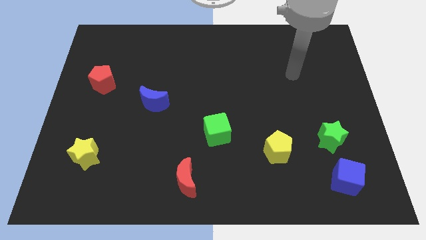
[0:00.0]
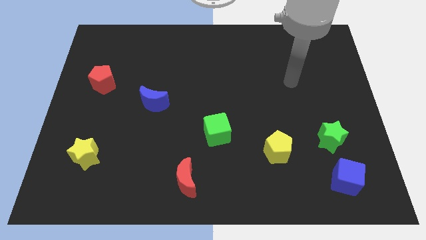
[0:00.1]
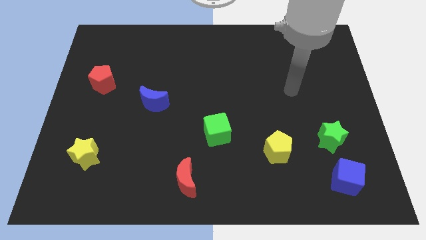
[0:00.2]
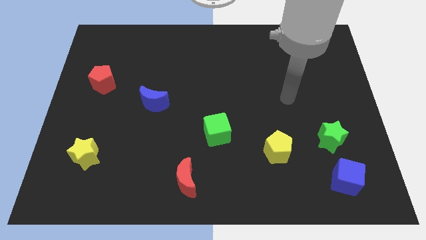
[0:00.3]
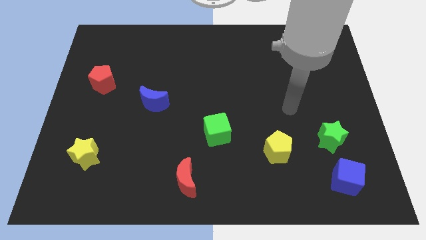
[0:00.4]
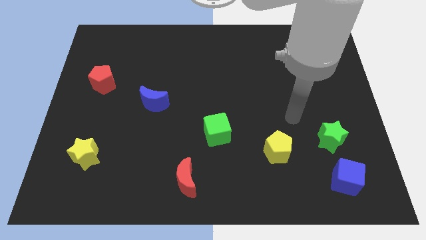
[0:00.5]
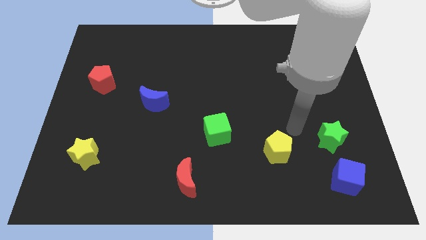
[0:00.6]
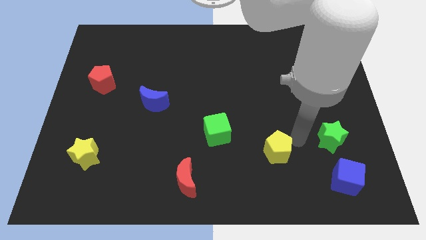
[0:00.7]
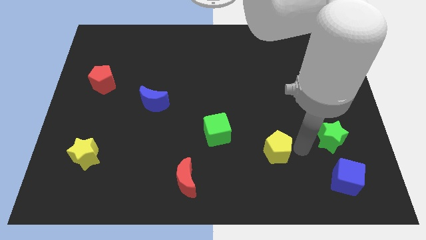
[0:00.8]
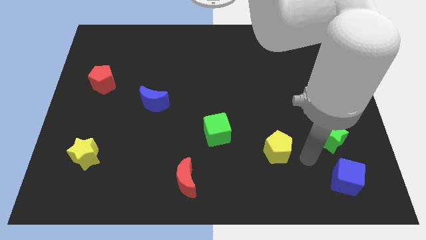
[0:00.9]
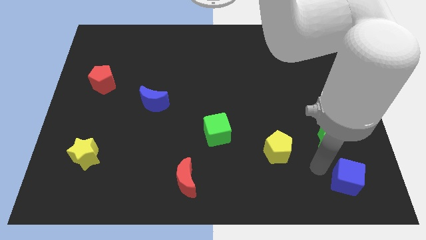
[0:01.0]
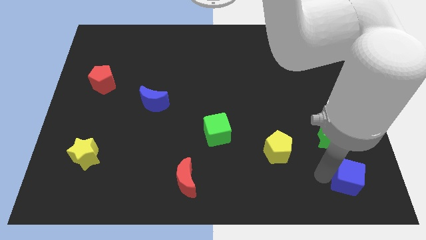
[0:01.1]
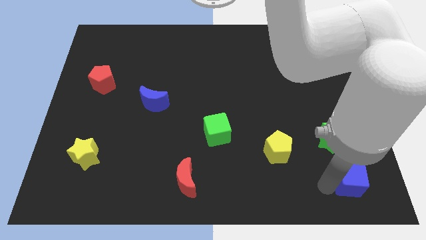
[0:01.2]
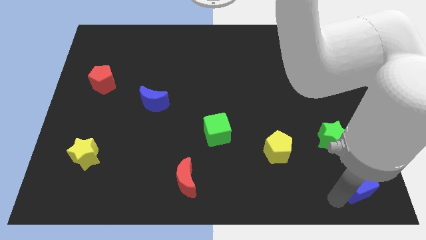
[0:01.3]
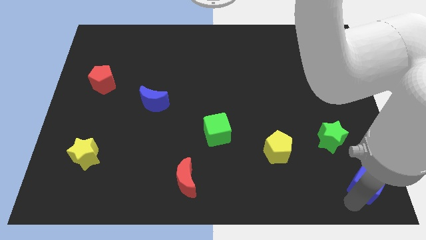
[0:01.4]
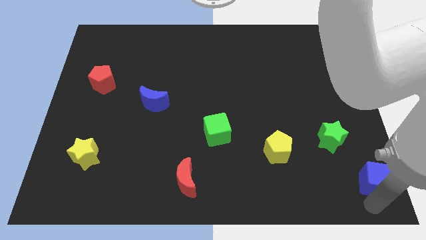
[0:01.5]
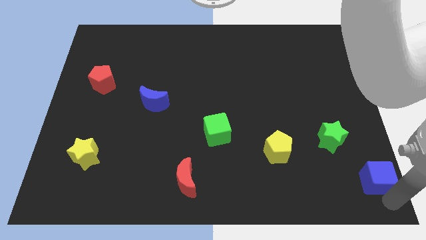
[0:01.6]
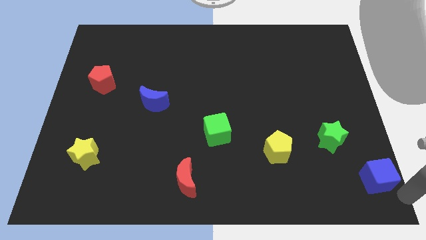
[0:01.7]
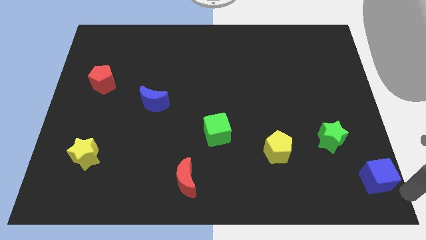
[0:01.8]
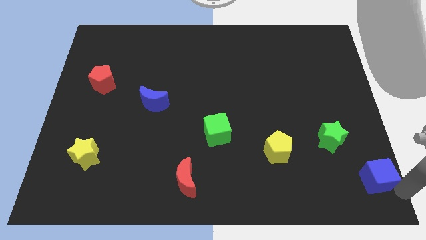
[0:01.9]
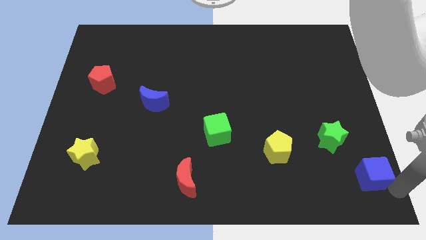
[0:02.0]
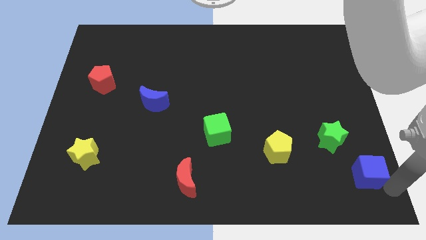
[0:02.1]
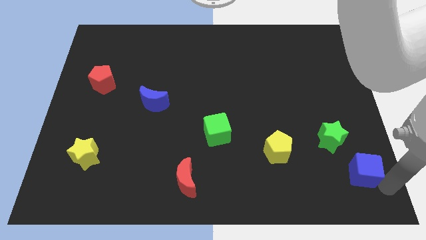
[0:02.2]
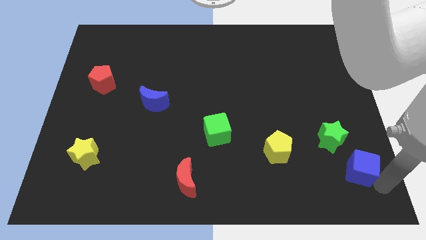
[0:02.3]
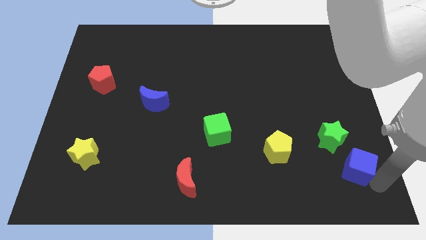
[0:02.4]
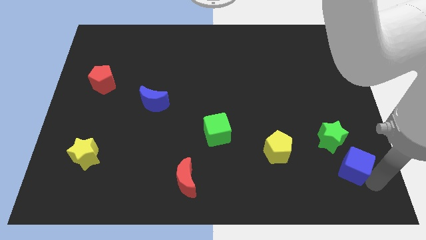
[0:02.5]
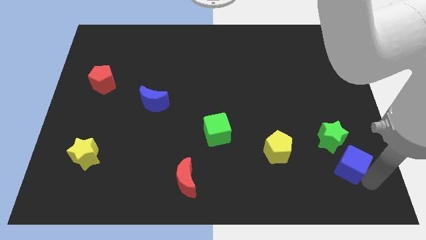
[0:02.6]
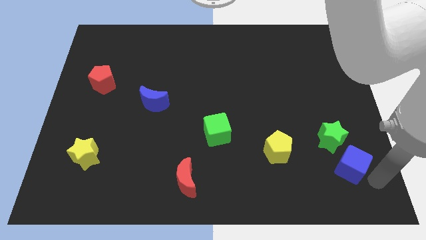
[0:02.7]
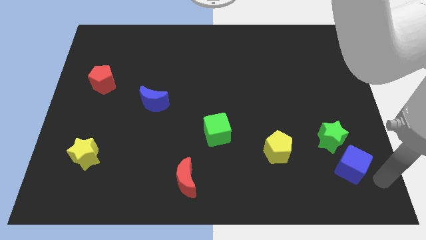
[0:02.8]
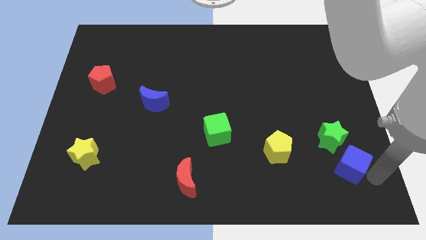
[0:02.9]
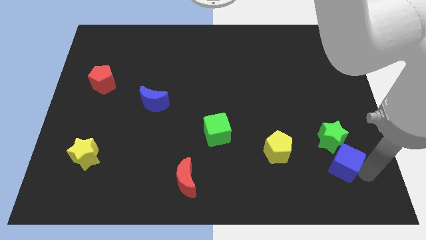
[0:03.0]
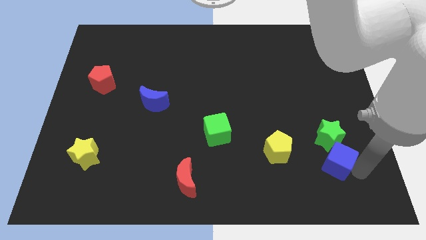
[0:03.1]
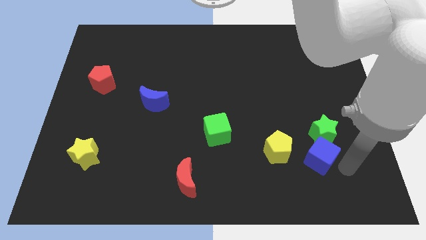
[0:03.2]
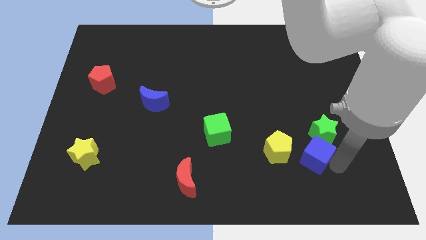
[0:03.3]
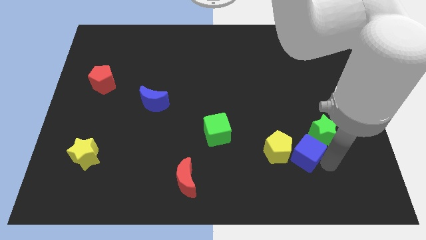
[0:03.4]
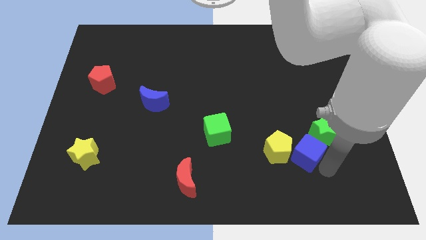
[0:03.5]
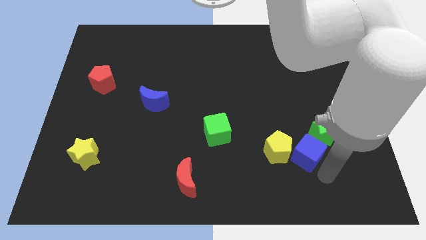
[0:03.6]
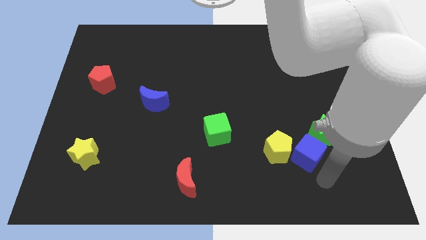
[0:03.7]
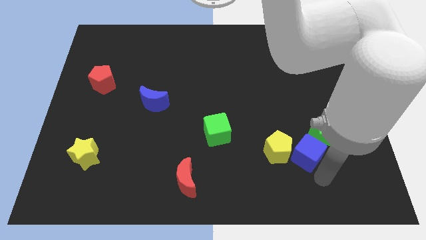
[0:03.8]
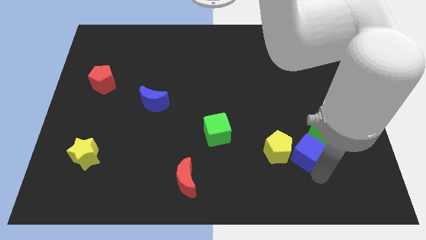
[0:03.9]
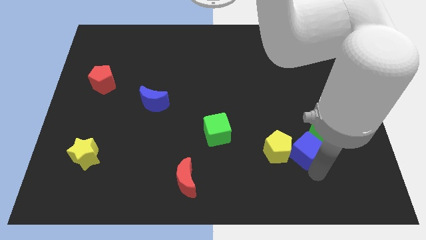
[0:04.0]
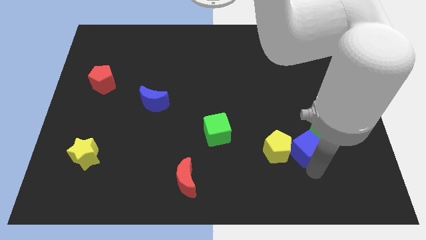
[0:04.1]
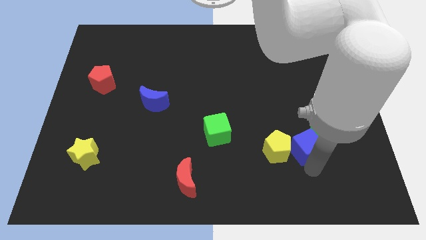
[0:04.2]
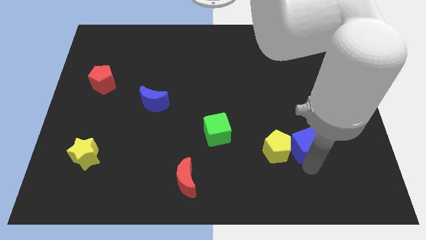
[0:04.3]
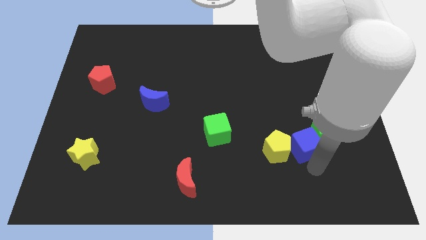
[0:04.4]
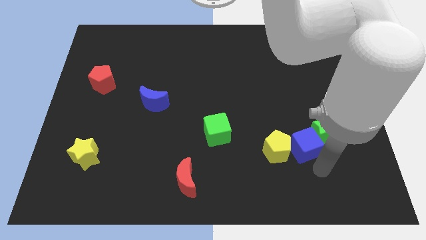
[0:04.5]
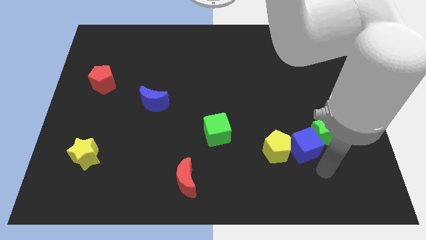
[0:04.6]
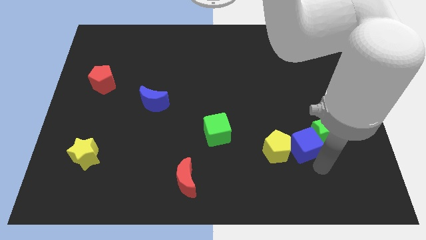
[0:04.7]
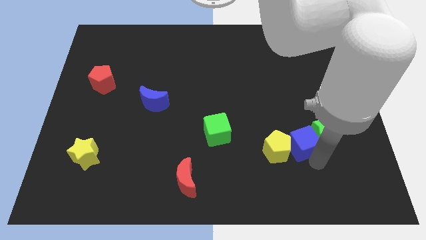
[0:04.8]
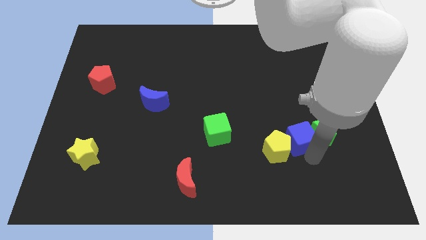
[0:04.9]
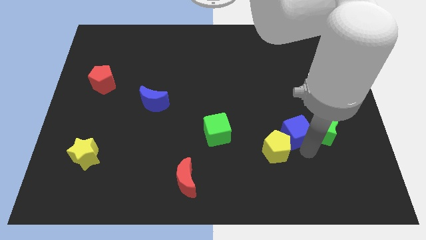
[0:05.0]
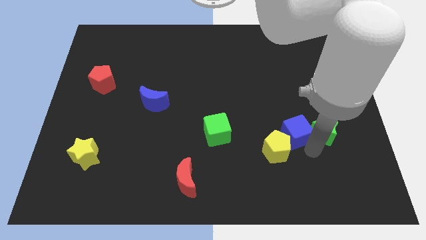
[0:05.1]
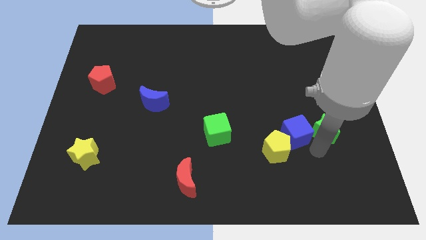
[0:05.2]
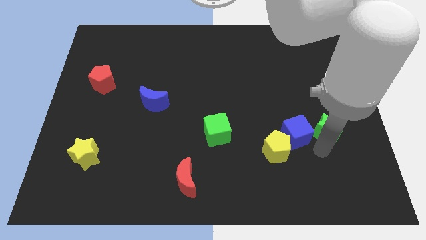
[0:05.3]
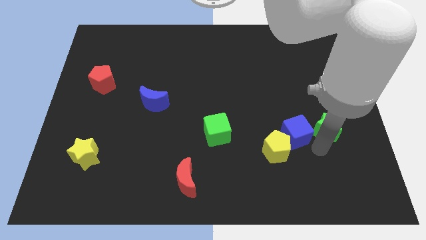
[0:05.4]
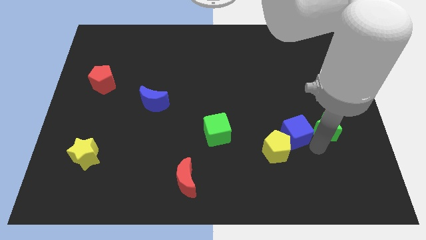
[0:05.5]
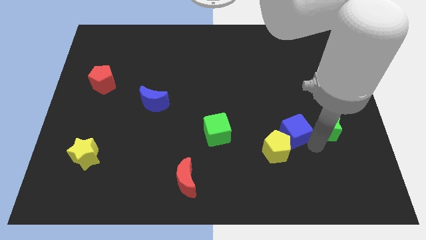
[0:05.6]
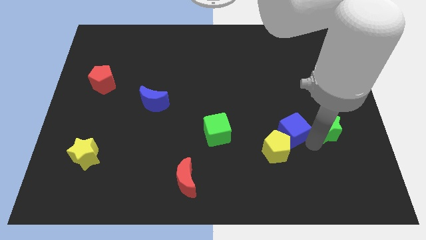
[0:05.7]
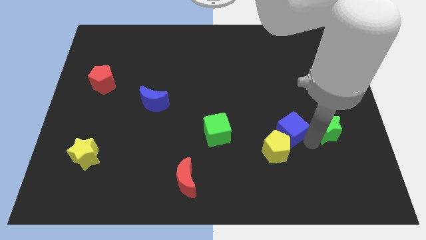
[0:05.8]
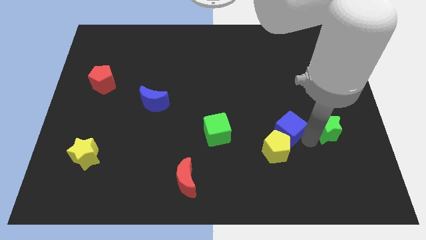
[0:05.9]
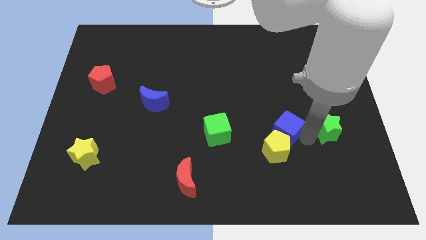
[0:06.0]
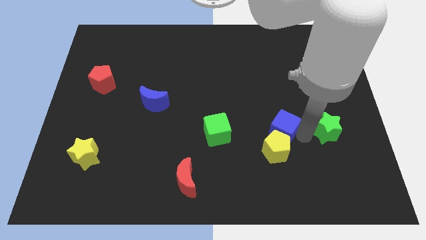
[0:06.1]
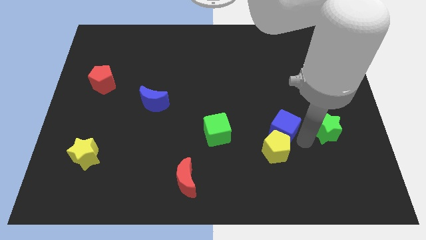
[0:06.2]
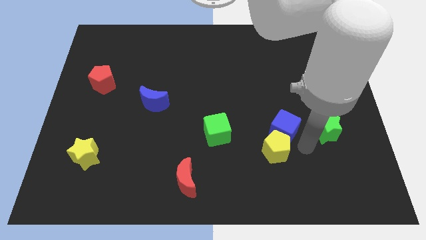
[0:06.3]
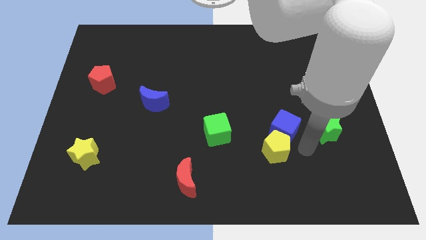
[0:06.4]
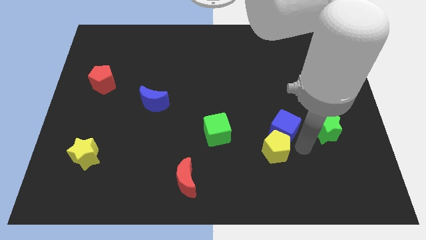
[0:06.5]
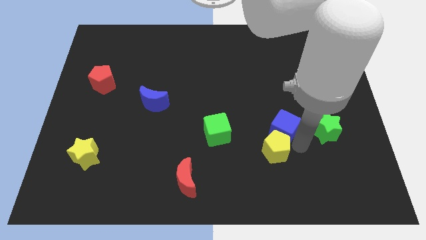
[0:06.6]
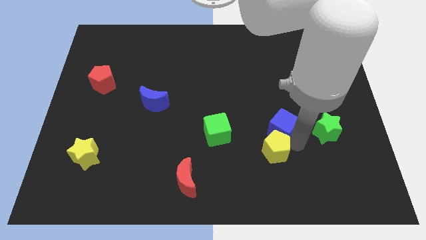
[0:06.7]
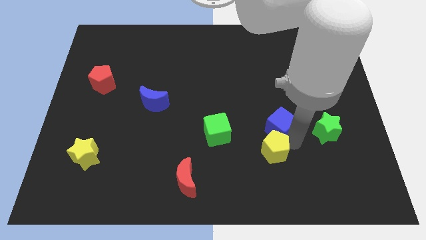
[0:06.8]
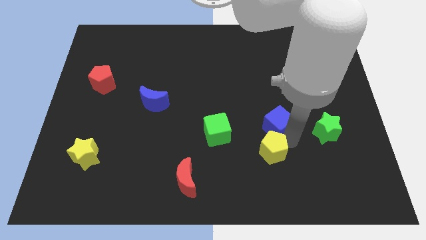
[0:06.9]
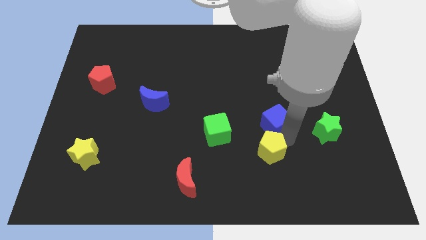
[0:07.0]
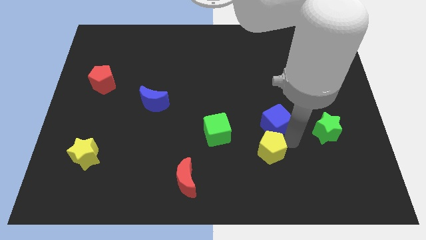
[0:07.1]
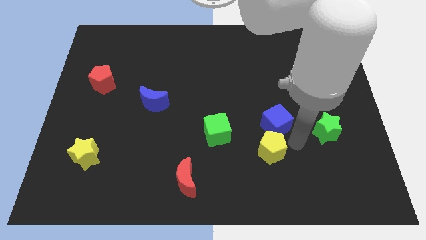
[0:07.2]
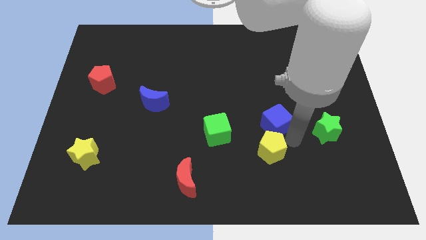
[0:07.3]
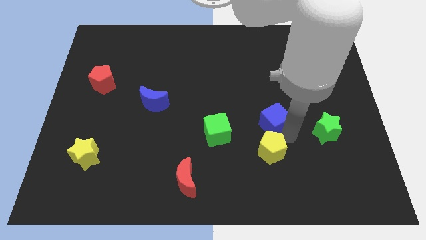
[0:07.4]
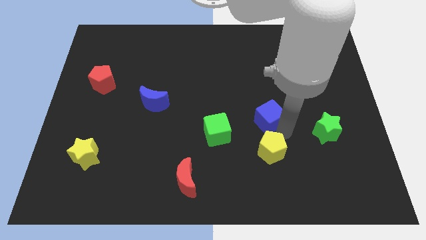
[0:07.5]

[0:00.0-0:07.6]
move the blue cube diagonally up and to the left

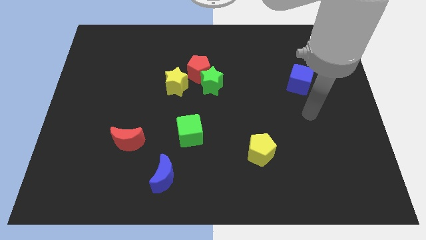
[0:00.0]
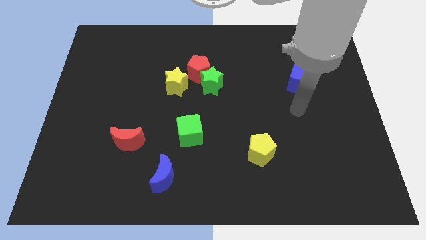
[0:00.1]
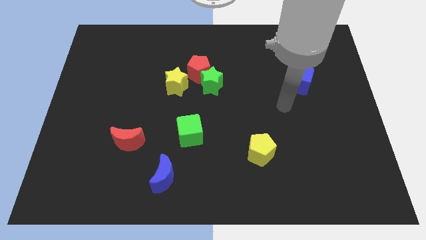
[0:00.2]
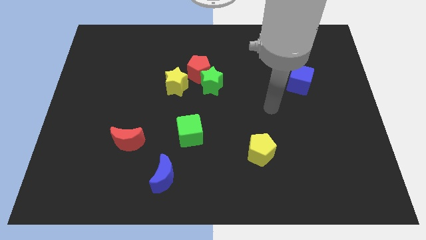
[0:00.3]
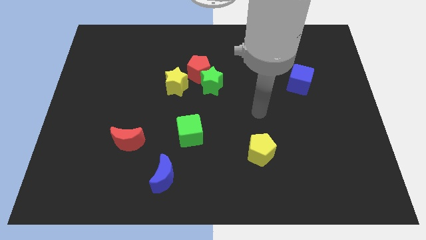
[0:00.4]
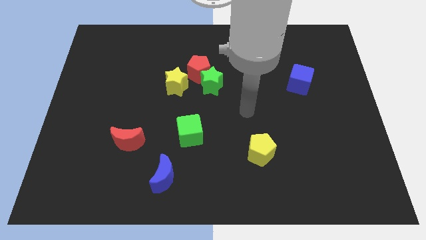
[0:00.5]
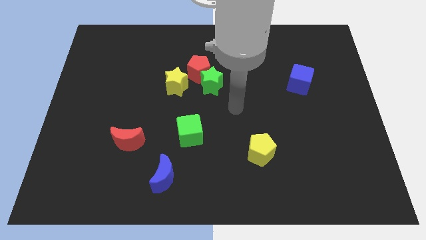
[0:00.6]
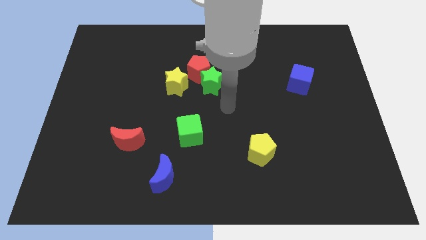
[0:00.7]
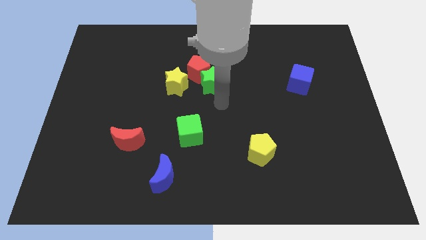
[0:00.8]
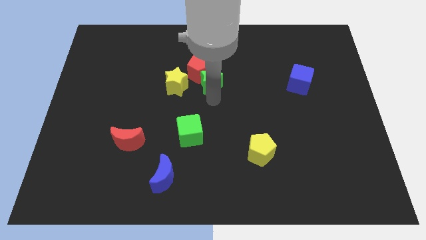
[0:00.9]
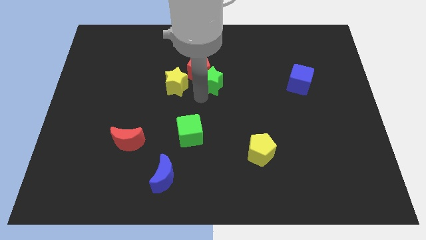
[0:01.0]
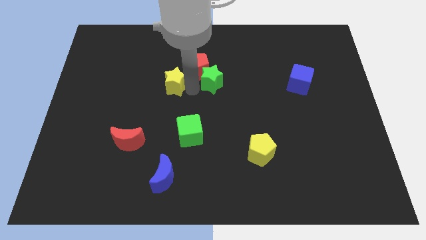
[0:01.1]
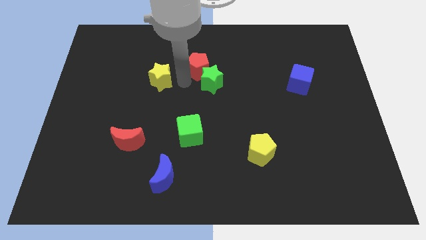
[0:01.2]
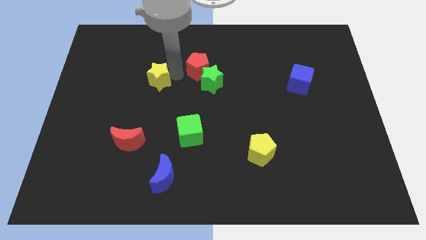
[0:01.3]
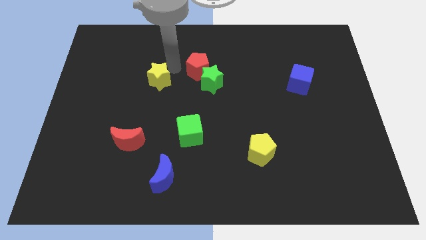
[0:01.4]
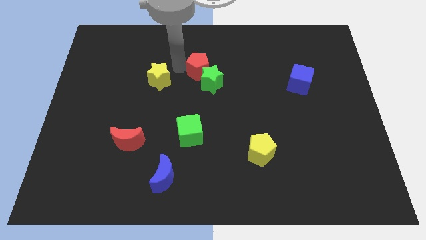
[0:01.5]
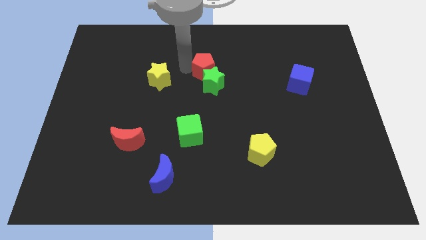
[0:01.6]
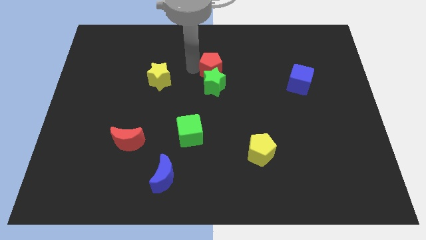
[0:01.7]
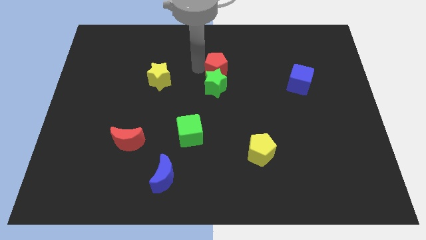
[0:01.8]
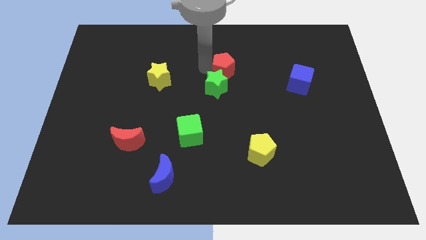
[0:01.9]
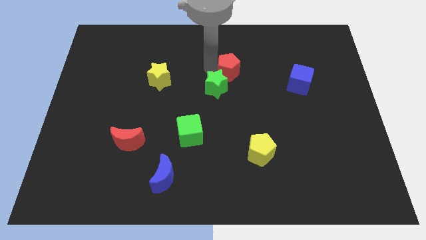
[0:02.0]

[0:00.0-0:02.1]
move the red pentagon right a bit
